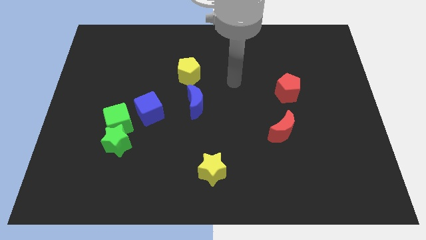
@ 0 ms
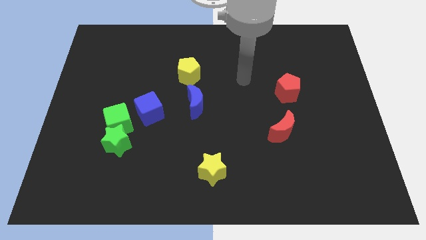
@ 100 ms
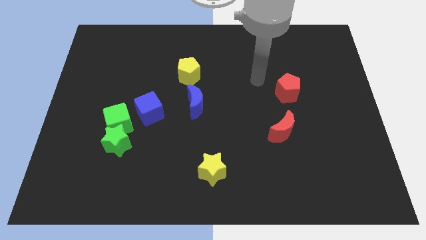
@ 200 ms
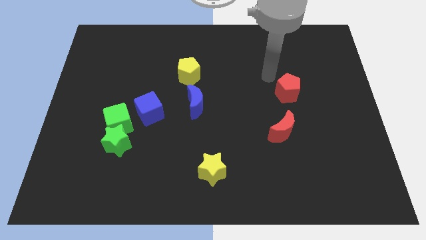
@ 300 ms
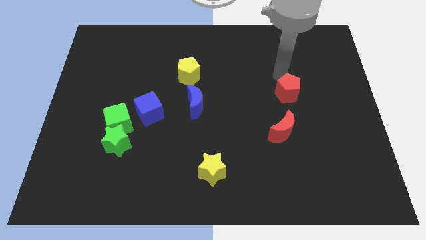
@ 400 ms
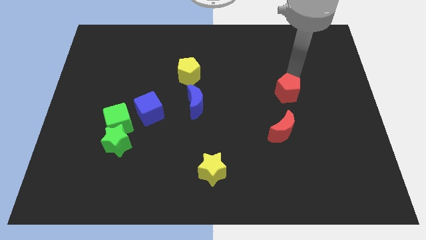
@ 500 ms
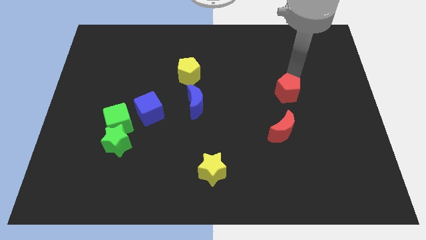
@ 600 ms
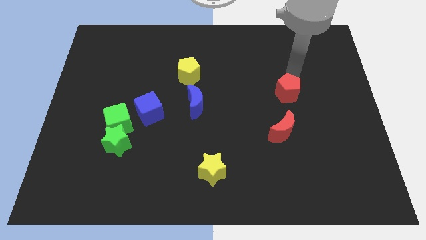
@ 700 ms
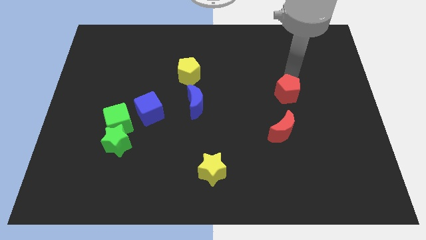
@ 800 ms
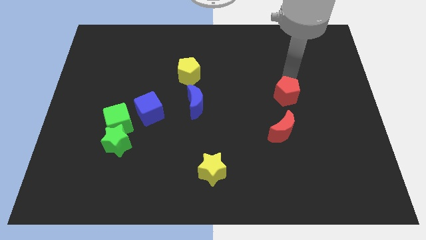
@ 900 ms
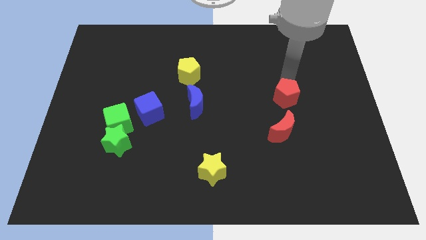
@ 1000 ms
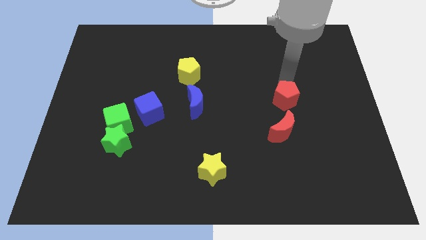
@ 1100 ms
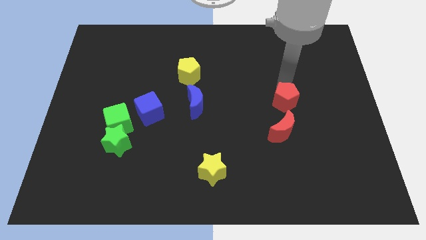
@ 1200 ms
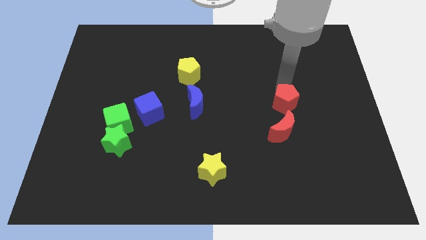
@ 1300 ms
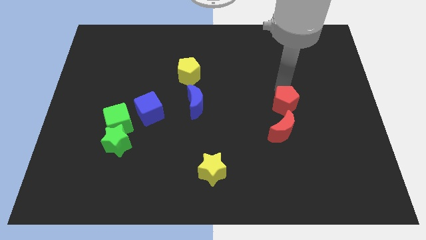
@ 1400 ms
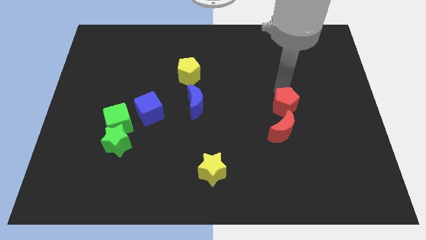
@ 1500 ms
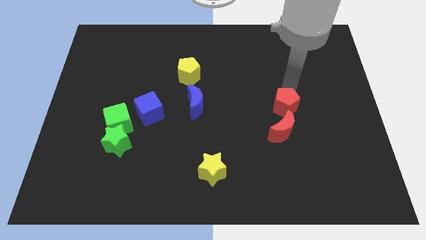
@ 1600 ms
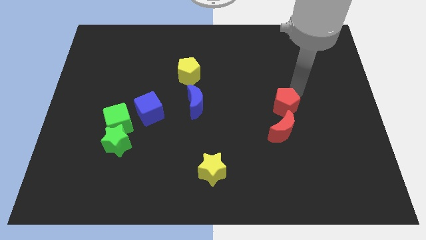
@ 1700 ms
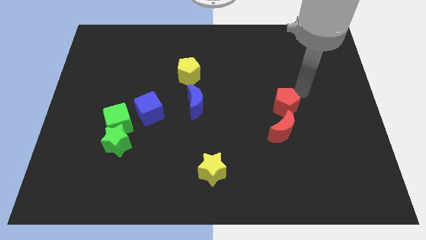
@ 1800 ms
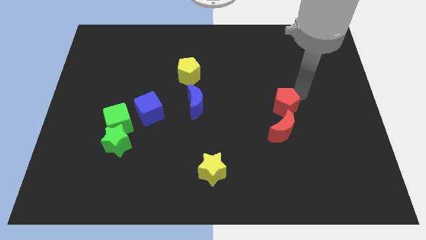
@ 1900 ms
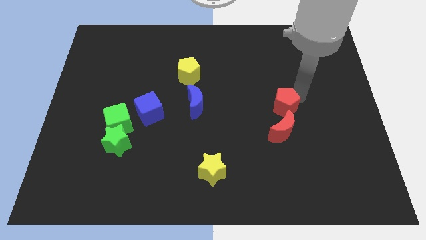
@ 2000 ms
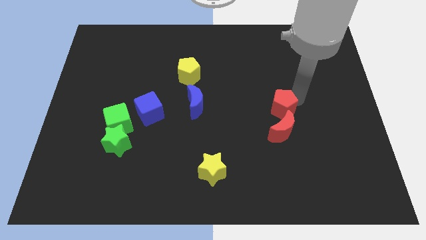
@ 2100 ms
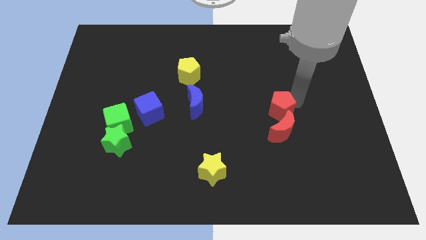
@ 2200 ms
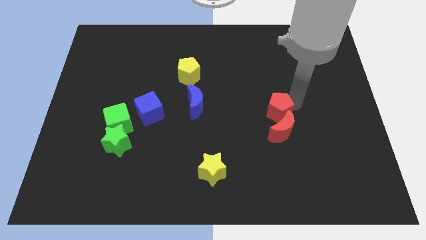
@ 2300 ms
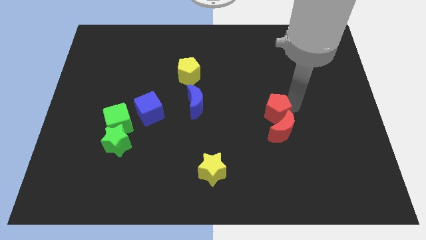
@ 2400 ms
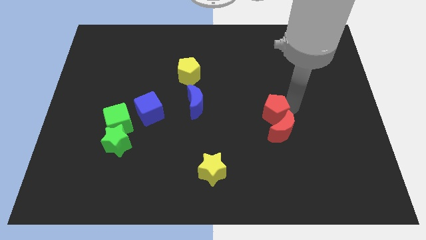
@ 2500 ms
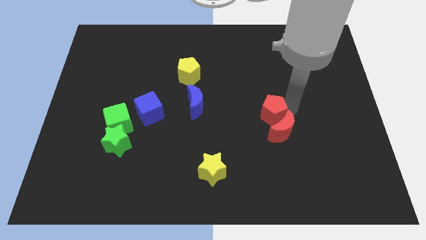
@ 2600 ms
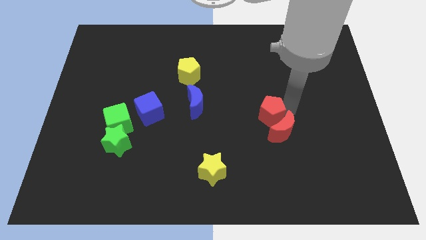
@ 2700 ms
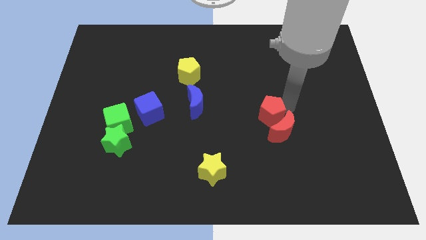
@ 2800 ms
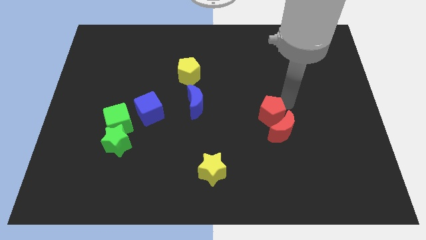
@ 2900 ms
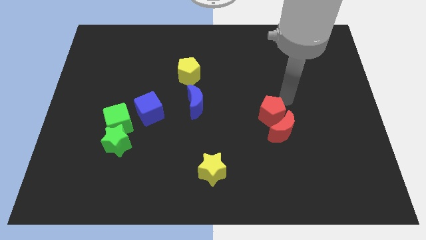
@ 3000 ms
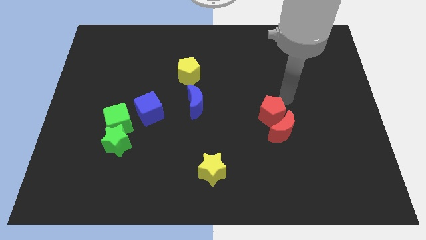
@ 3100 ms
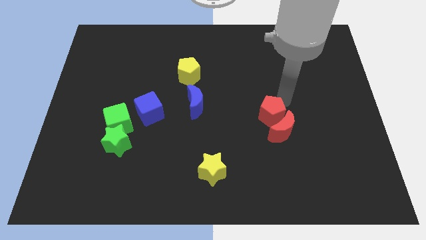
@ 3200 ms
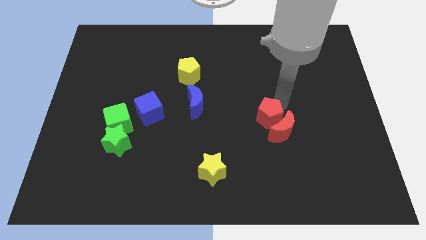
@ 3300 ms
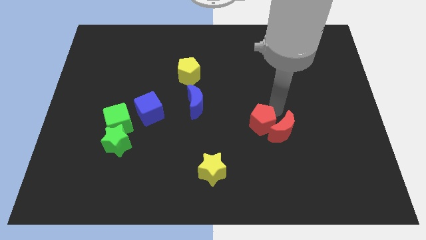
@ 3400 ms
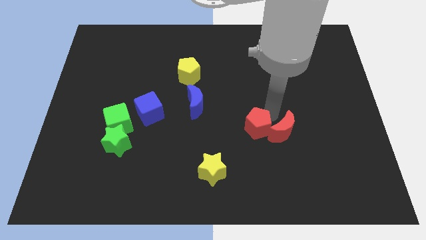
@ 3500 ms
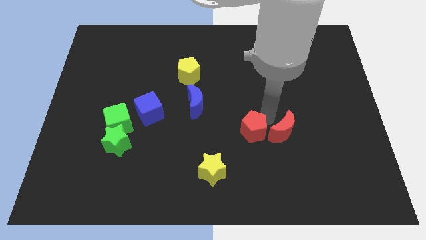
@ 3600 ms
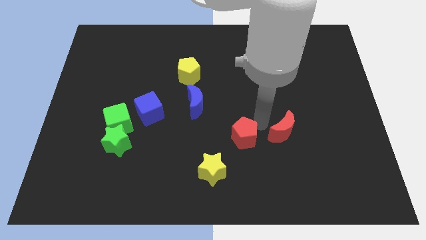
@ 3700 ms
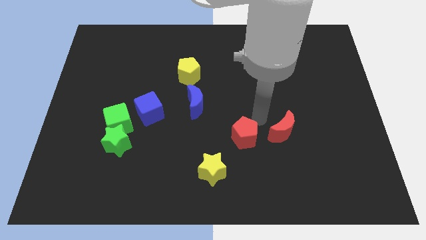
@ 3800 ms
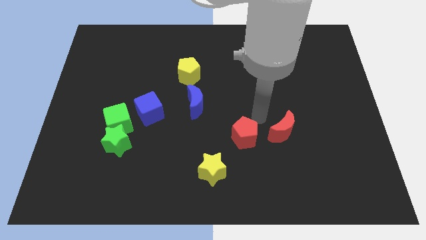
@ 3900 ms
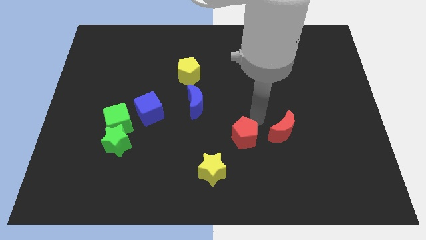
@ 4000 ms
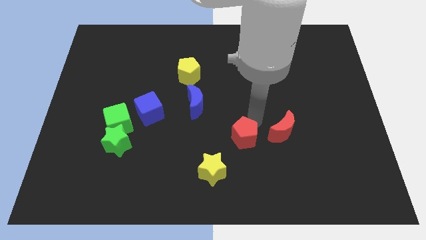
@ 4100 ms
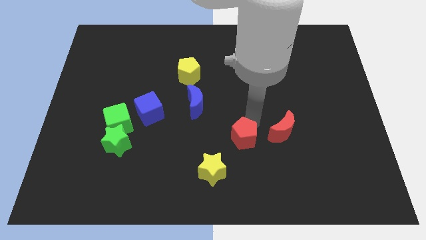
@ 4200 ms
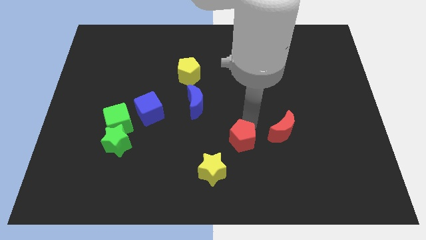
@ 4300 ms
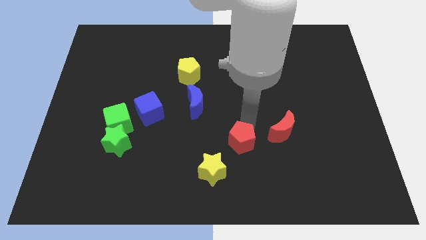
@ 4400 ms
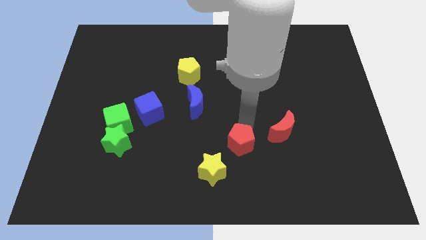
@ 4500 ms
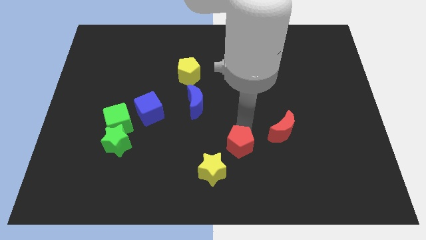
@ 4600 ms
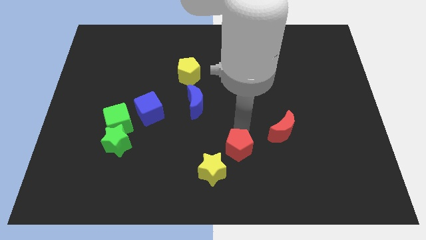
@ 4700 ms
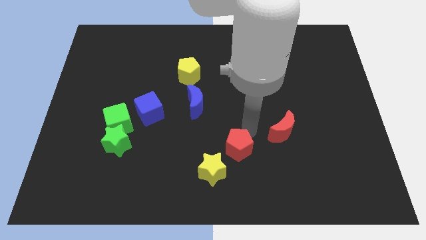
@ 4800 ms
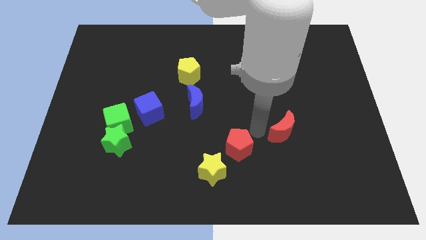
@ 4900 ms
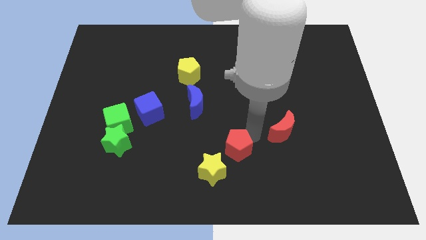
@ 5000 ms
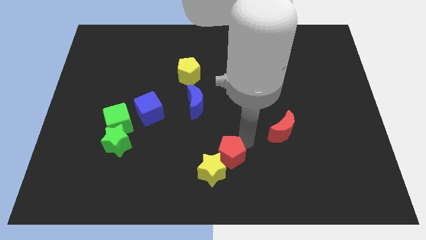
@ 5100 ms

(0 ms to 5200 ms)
slide the red pentagon next to the yellow star

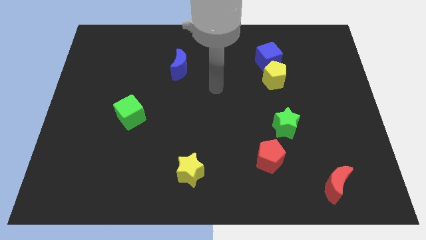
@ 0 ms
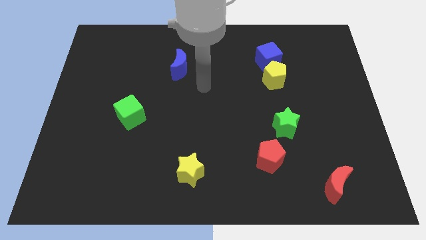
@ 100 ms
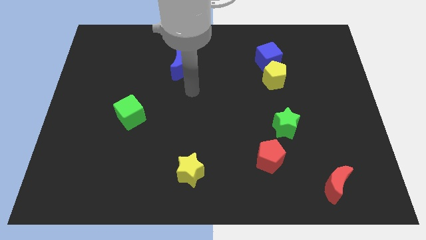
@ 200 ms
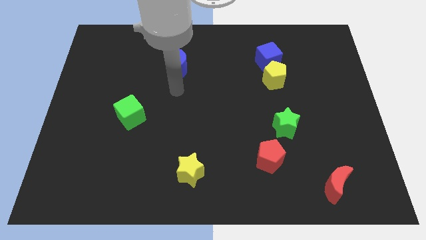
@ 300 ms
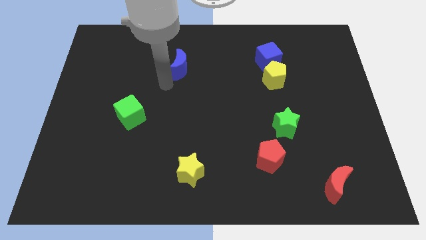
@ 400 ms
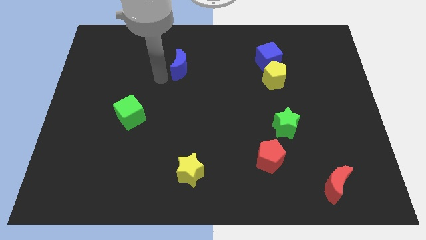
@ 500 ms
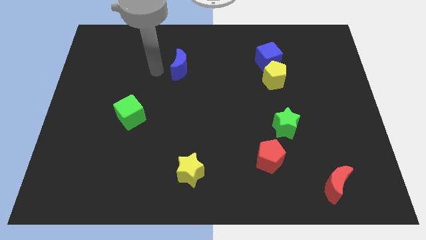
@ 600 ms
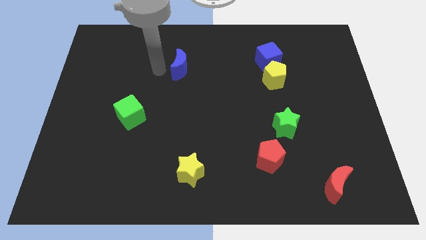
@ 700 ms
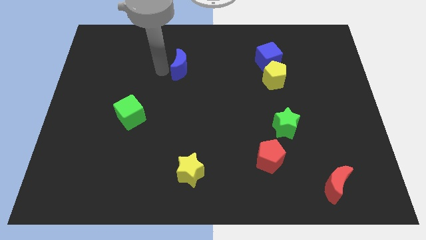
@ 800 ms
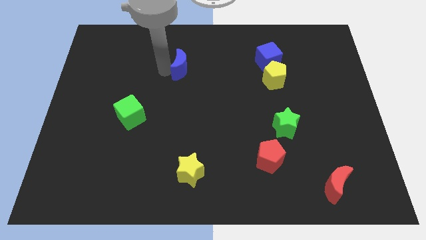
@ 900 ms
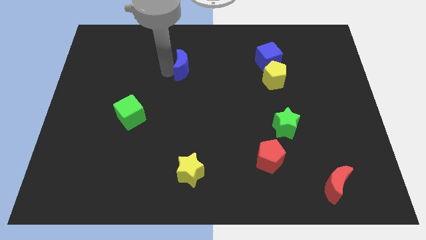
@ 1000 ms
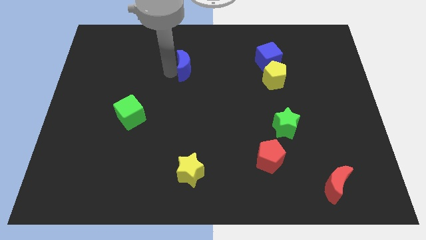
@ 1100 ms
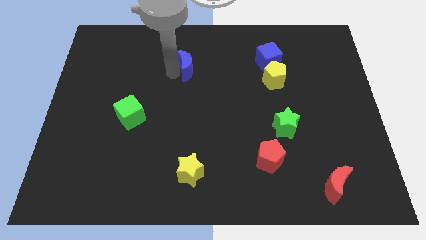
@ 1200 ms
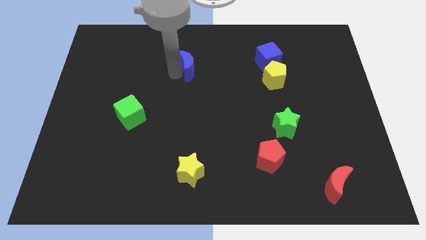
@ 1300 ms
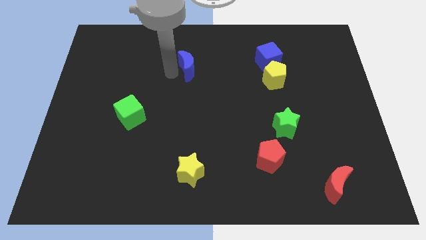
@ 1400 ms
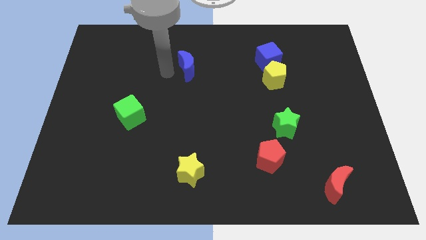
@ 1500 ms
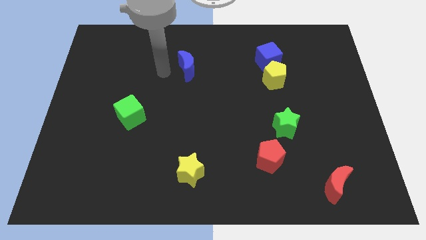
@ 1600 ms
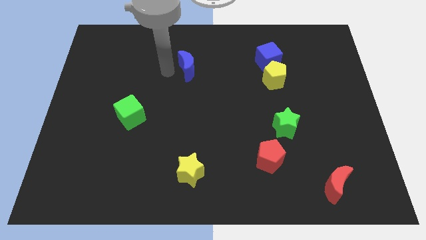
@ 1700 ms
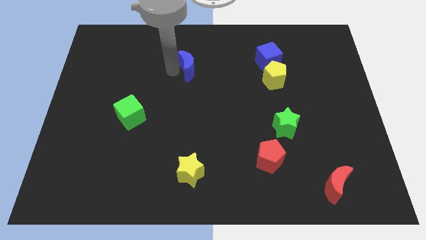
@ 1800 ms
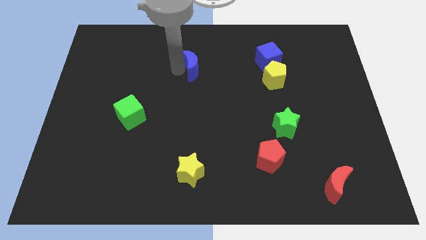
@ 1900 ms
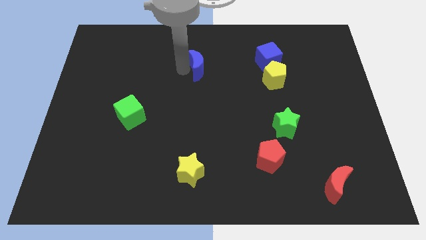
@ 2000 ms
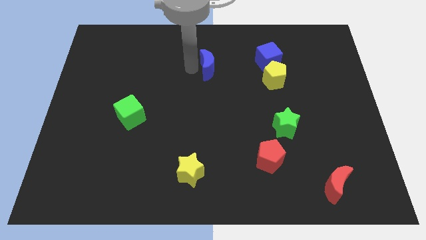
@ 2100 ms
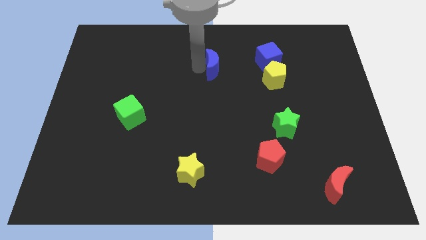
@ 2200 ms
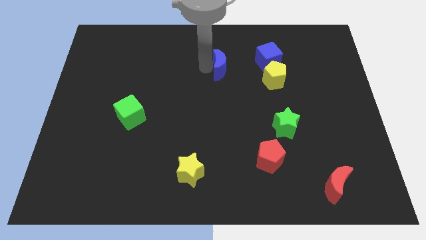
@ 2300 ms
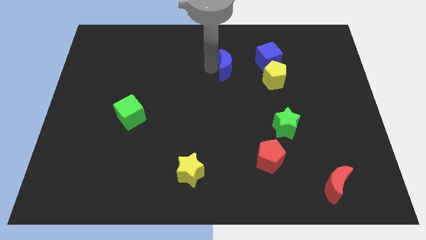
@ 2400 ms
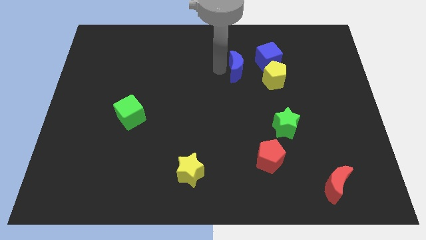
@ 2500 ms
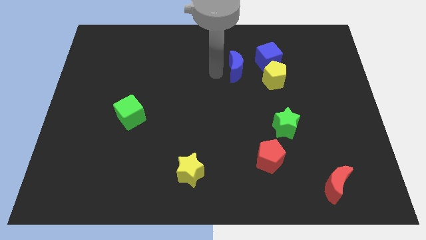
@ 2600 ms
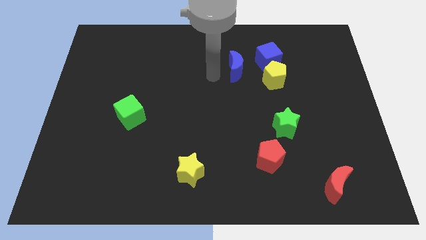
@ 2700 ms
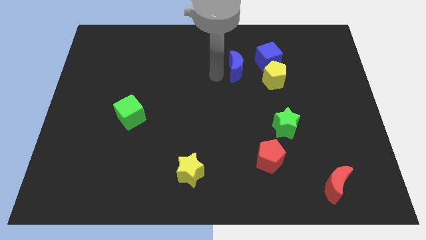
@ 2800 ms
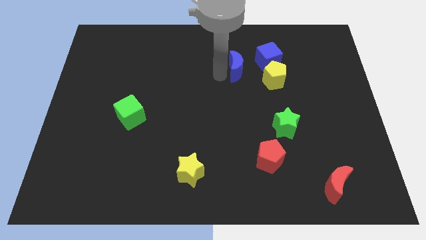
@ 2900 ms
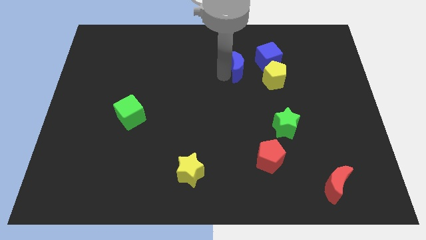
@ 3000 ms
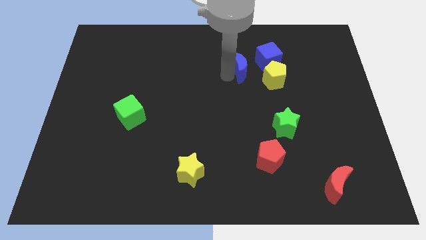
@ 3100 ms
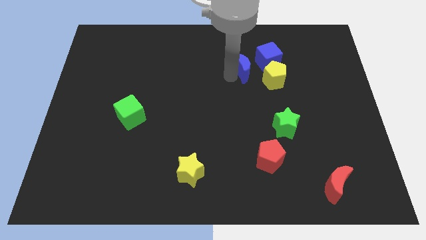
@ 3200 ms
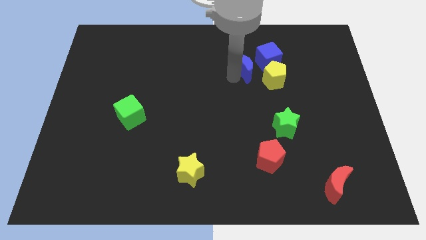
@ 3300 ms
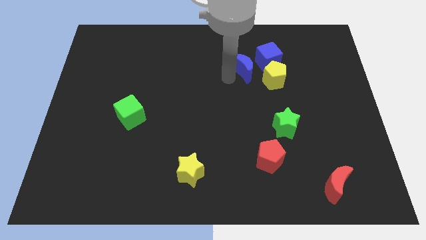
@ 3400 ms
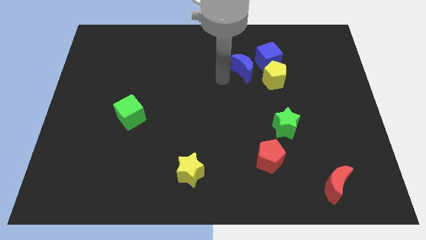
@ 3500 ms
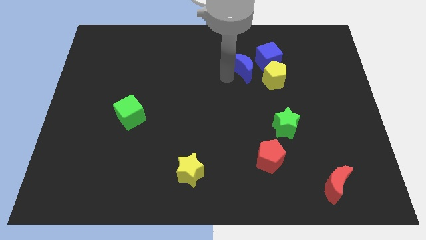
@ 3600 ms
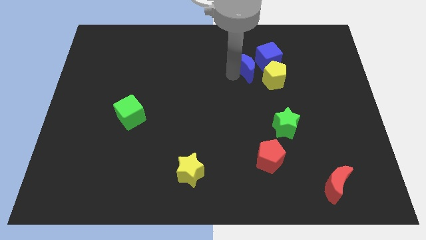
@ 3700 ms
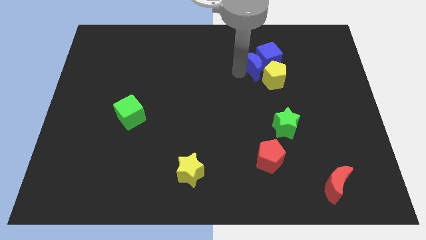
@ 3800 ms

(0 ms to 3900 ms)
slide the blue moon next to the blue cube
